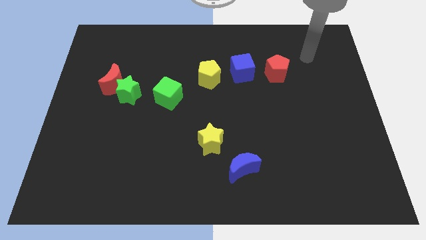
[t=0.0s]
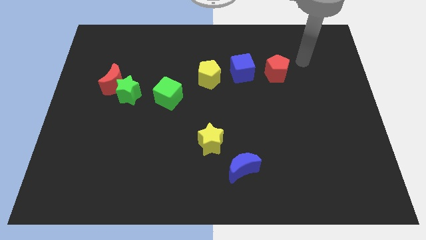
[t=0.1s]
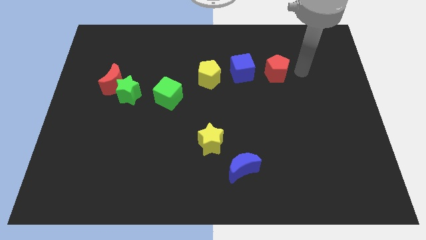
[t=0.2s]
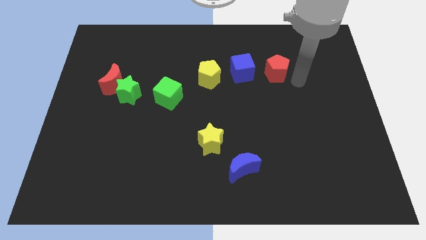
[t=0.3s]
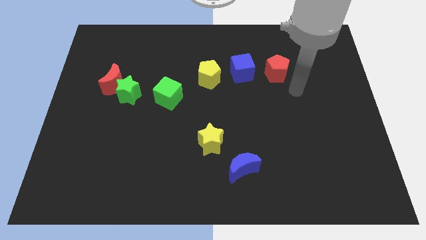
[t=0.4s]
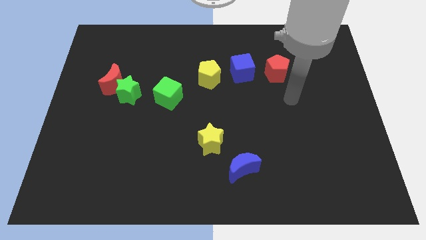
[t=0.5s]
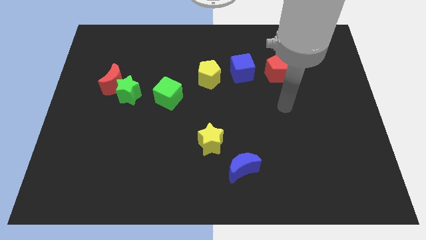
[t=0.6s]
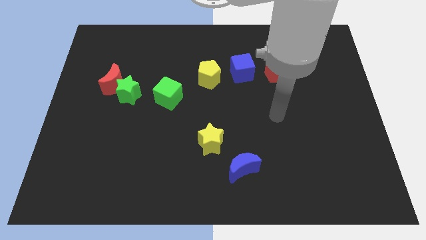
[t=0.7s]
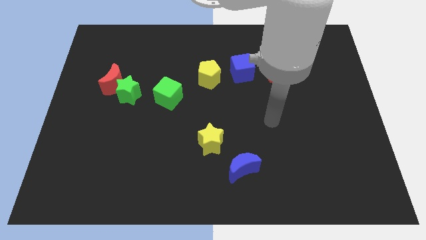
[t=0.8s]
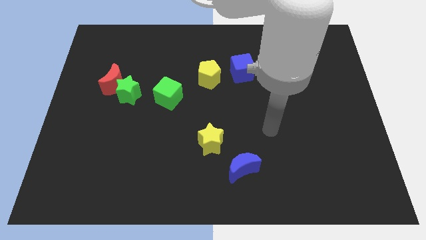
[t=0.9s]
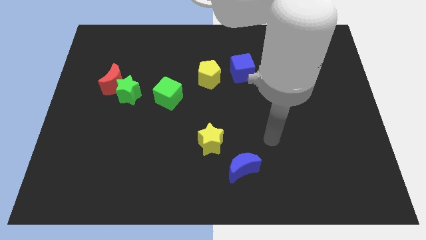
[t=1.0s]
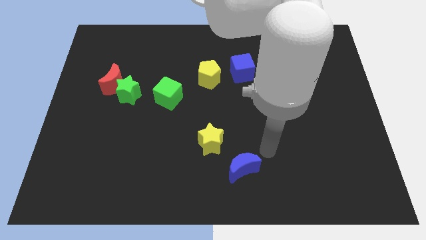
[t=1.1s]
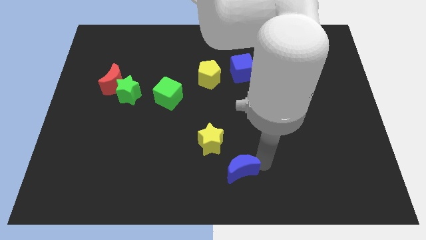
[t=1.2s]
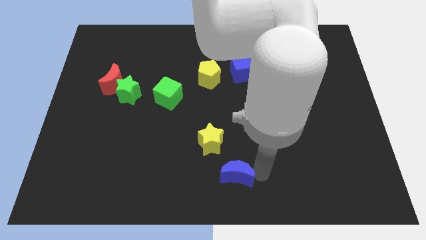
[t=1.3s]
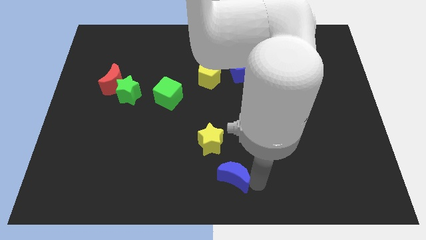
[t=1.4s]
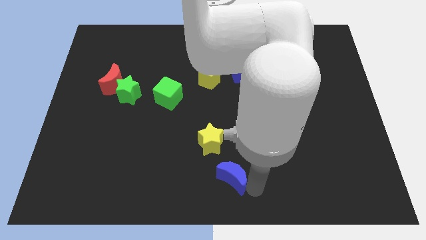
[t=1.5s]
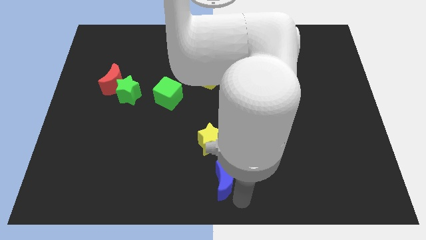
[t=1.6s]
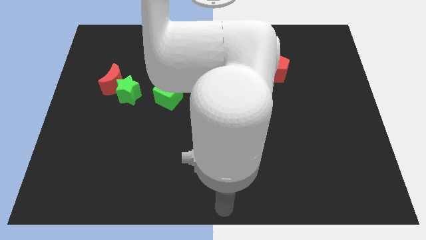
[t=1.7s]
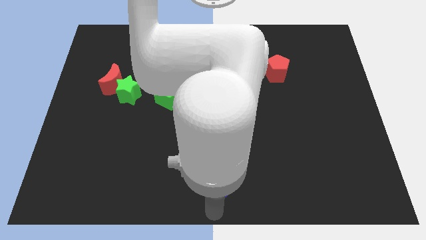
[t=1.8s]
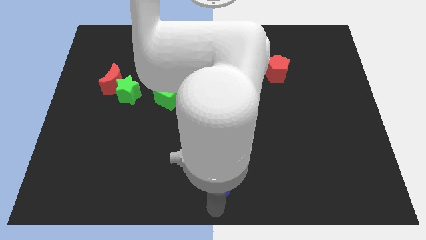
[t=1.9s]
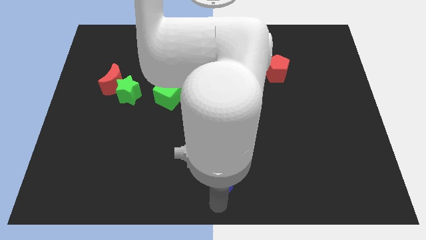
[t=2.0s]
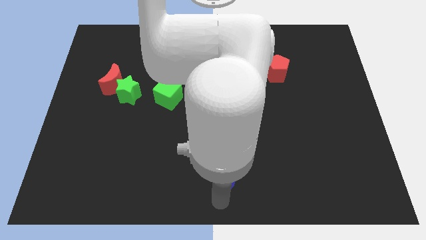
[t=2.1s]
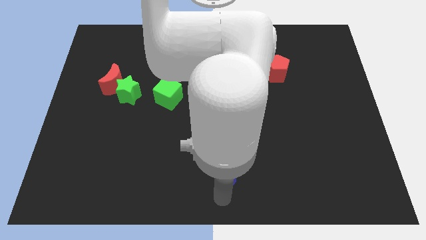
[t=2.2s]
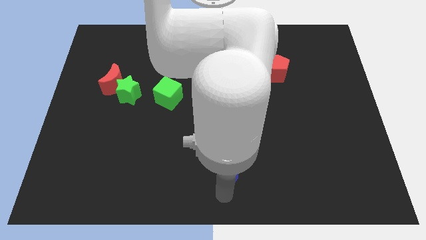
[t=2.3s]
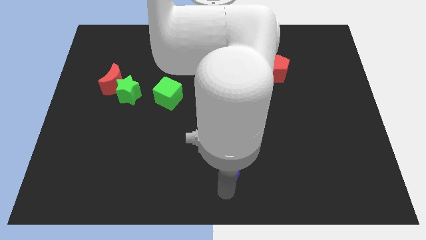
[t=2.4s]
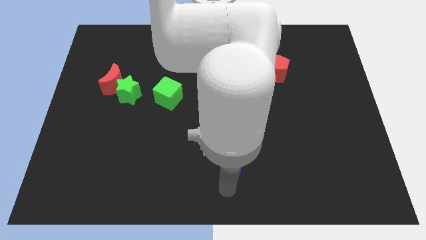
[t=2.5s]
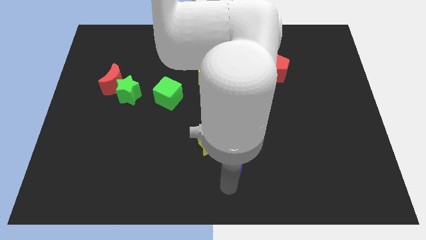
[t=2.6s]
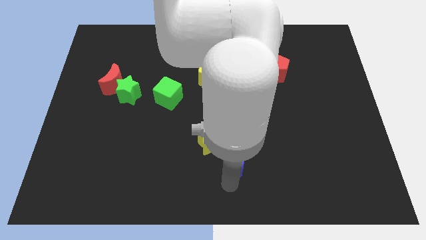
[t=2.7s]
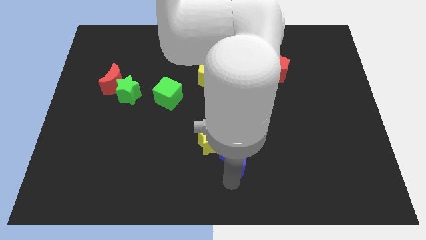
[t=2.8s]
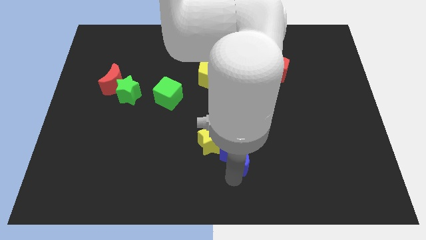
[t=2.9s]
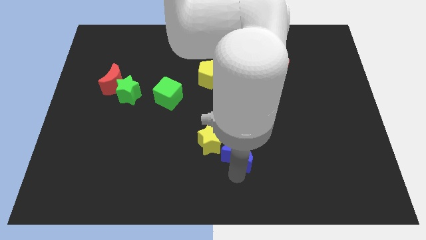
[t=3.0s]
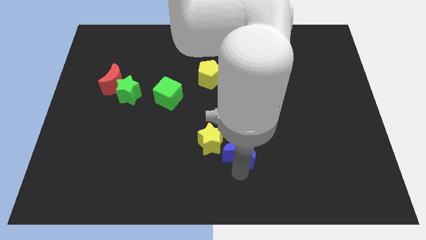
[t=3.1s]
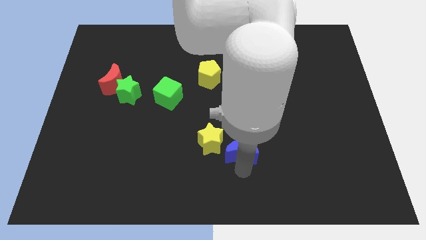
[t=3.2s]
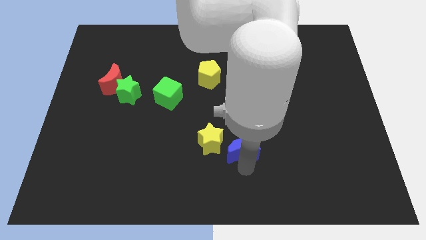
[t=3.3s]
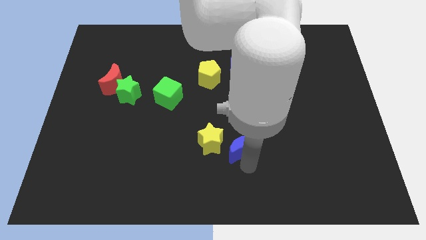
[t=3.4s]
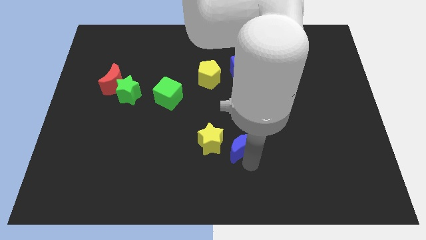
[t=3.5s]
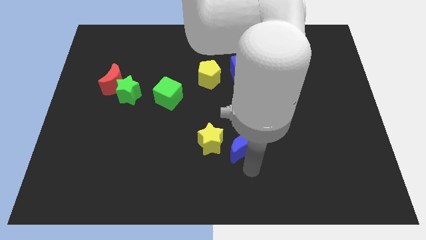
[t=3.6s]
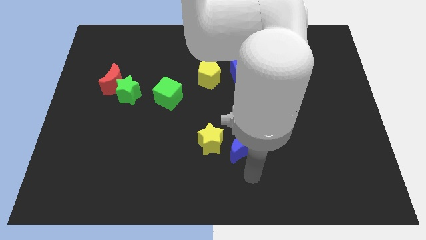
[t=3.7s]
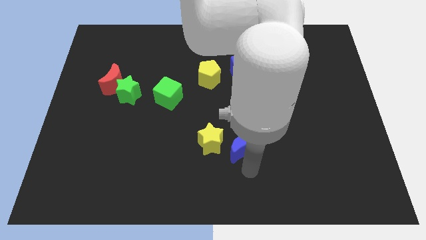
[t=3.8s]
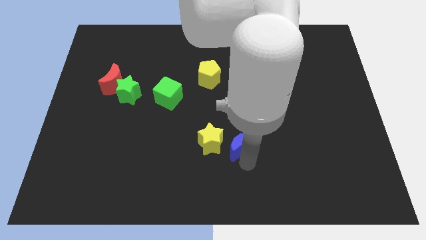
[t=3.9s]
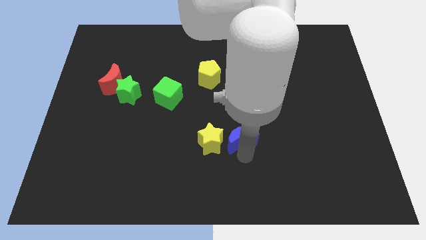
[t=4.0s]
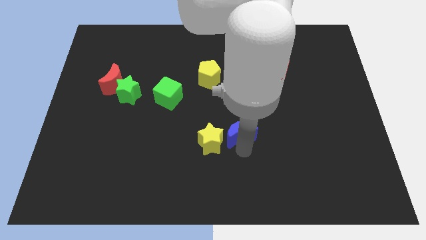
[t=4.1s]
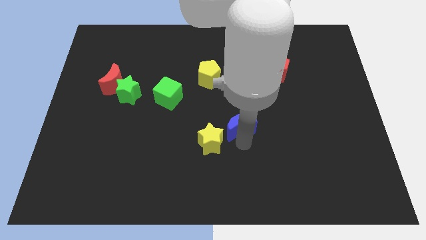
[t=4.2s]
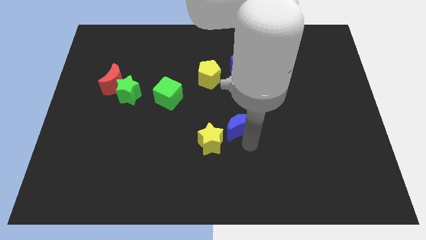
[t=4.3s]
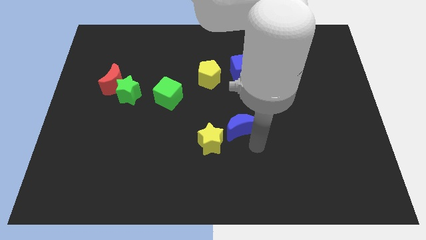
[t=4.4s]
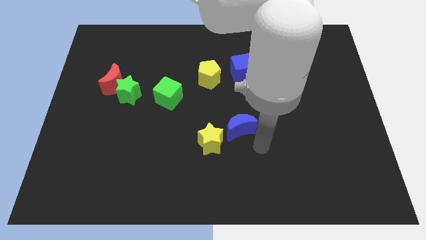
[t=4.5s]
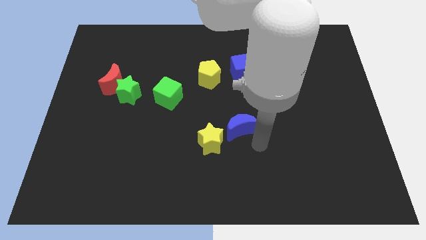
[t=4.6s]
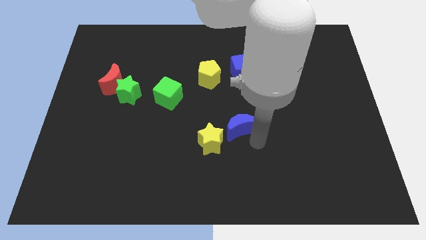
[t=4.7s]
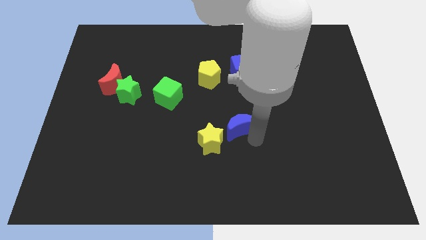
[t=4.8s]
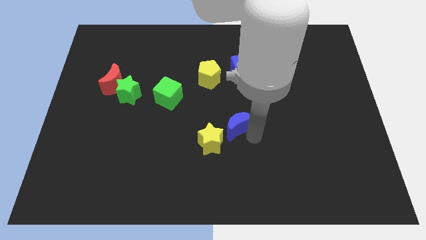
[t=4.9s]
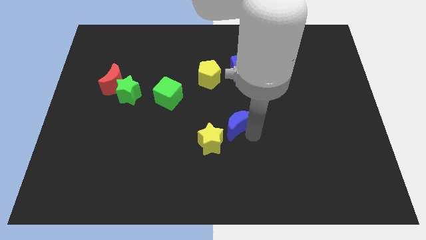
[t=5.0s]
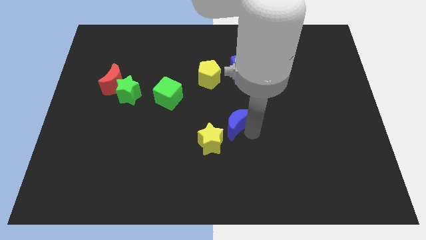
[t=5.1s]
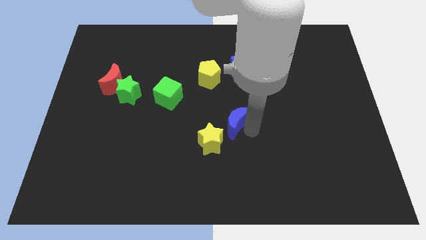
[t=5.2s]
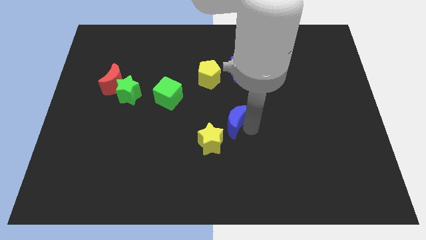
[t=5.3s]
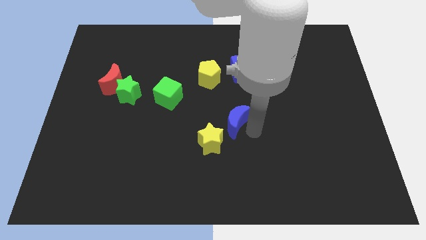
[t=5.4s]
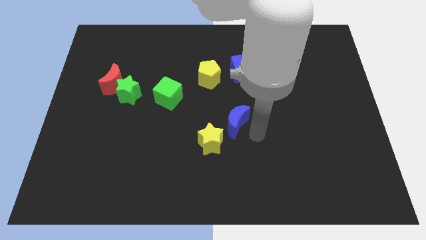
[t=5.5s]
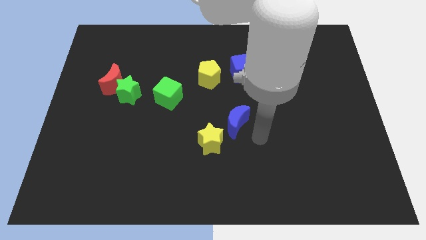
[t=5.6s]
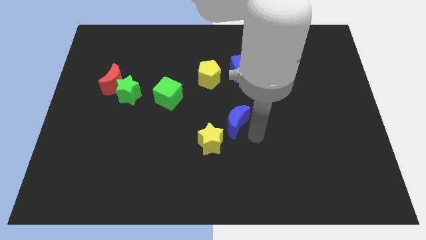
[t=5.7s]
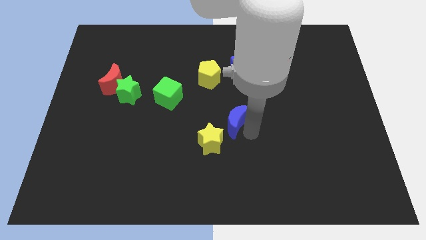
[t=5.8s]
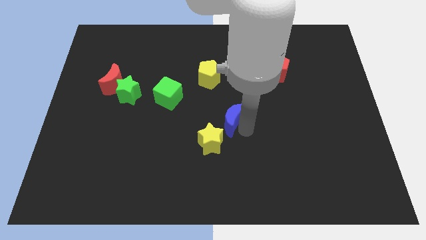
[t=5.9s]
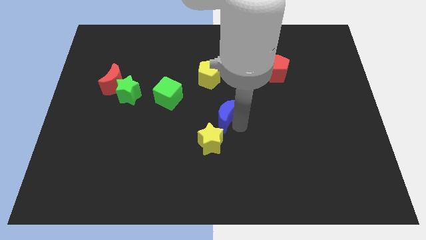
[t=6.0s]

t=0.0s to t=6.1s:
slide the blue moon below the yellow pentagon

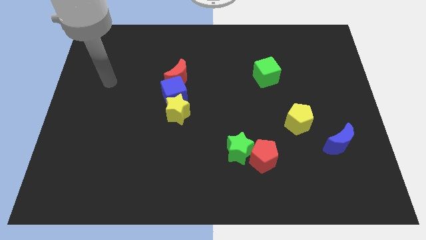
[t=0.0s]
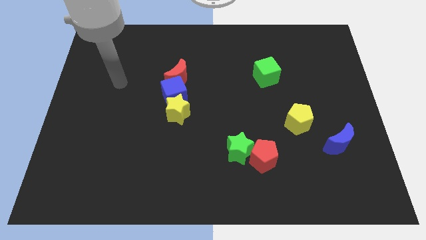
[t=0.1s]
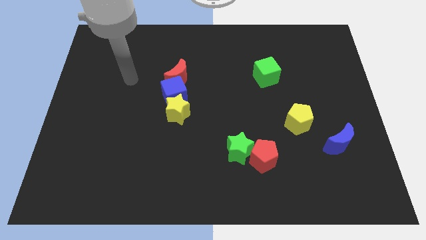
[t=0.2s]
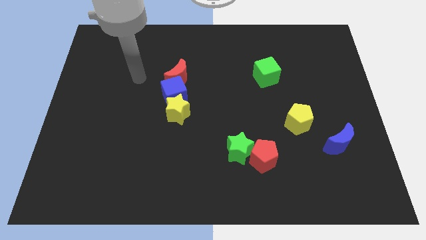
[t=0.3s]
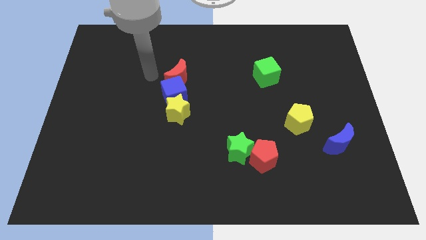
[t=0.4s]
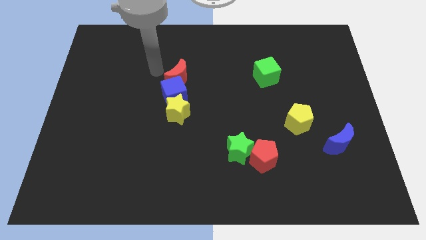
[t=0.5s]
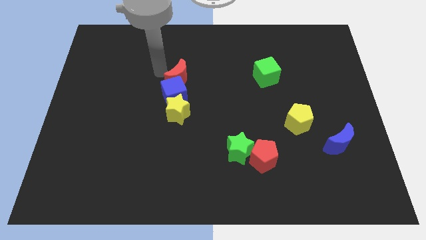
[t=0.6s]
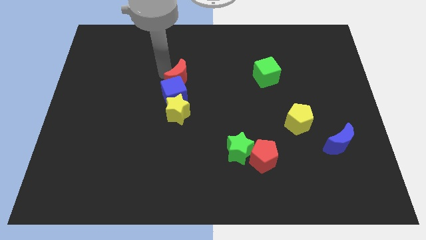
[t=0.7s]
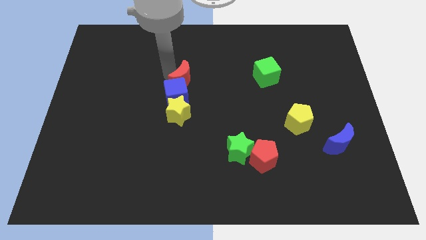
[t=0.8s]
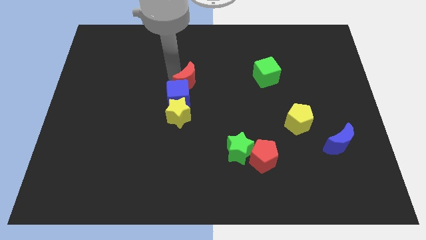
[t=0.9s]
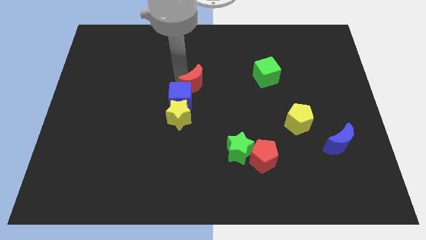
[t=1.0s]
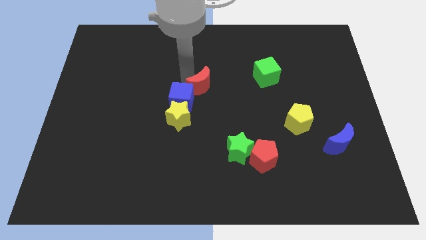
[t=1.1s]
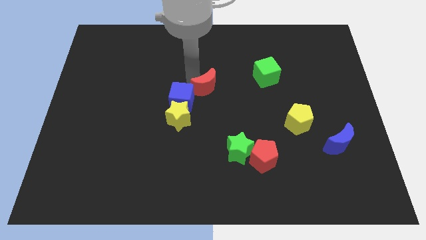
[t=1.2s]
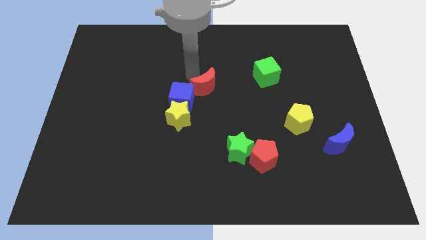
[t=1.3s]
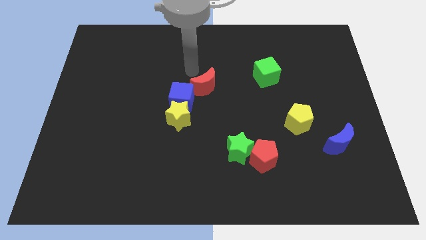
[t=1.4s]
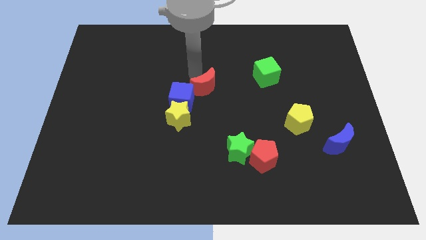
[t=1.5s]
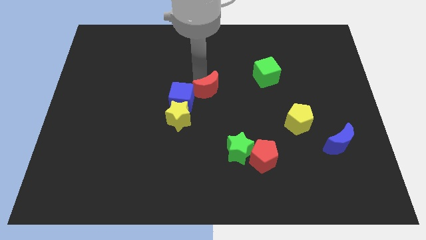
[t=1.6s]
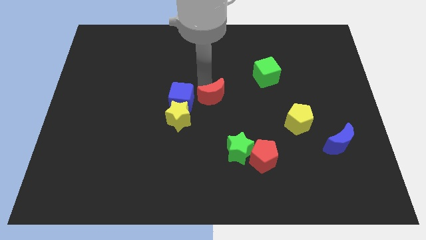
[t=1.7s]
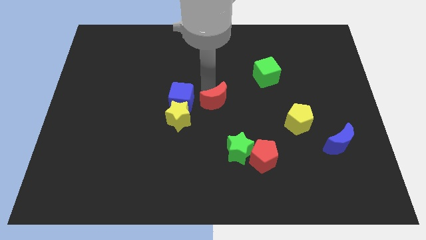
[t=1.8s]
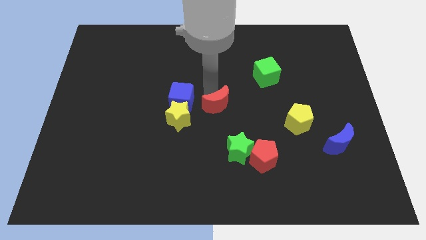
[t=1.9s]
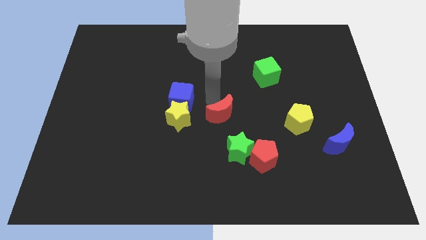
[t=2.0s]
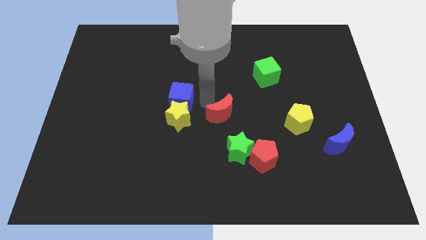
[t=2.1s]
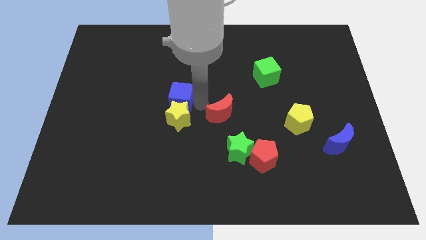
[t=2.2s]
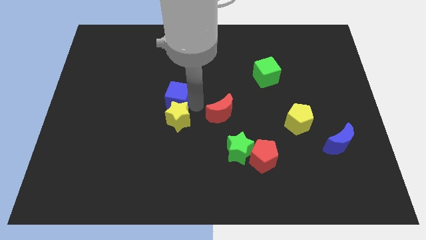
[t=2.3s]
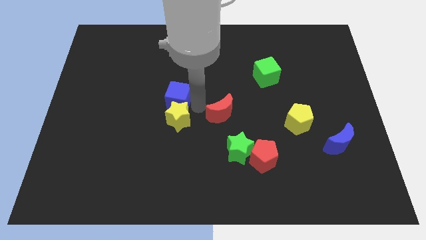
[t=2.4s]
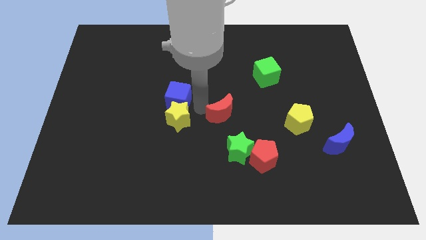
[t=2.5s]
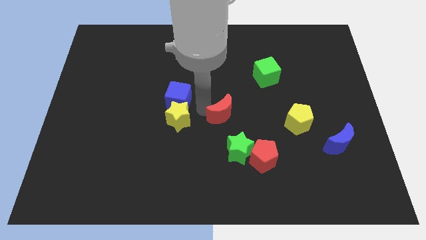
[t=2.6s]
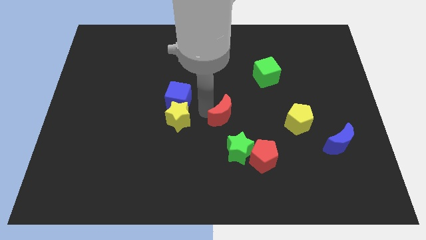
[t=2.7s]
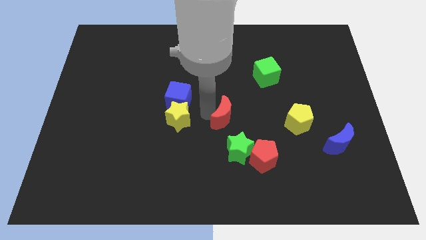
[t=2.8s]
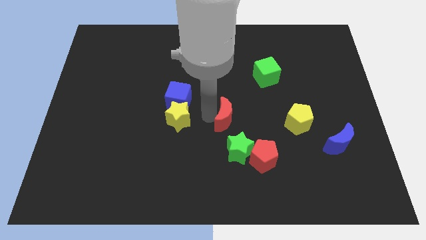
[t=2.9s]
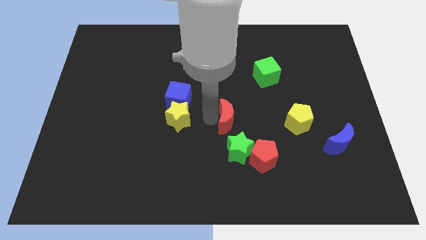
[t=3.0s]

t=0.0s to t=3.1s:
slide the red moon left of the yellow pentagon
